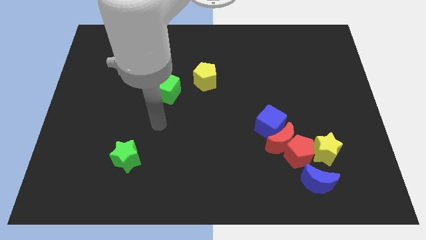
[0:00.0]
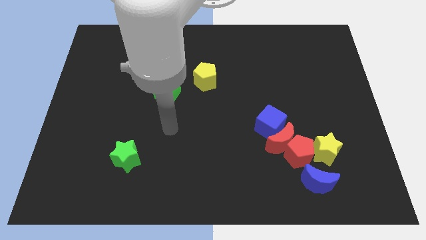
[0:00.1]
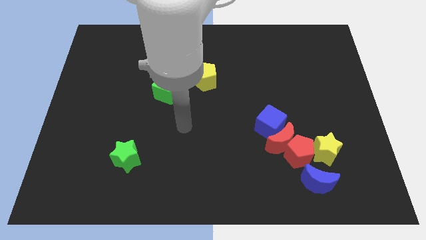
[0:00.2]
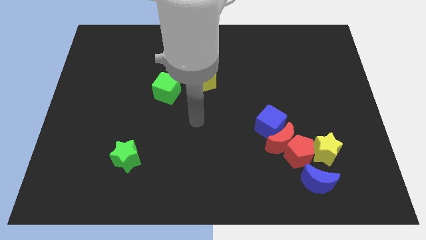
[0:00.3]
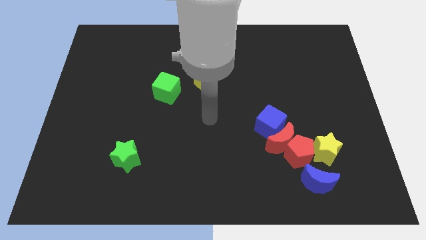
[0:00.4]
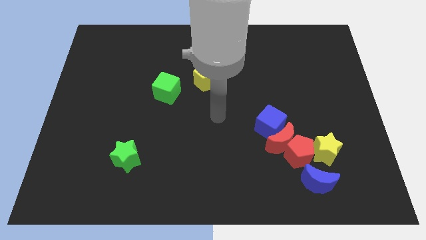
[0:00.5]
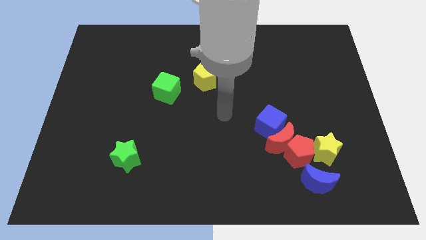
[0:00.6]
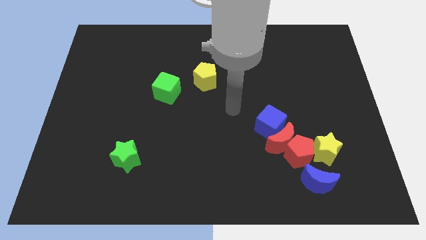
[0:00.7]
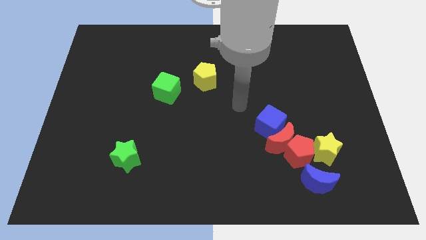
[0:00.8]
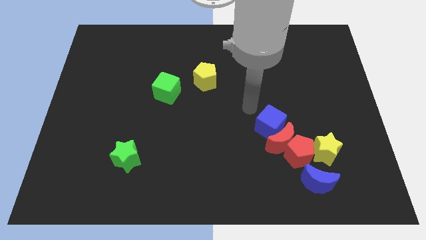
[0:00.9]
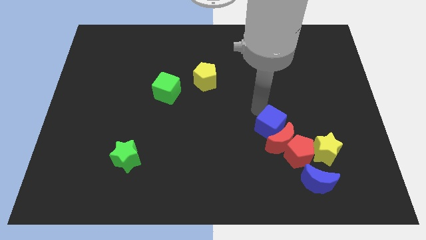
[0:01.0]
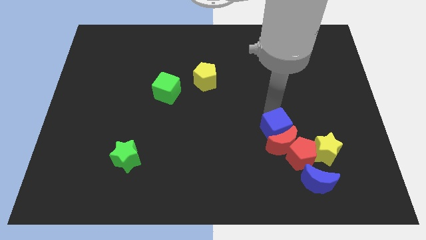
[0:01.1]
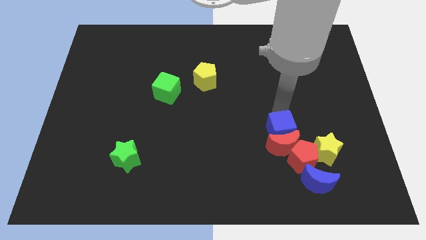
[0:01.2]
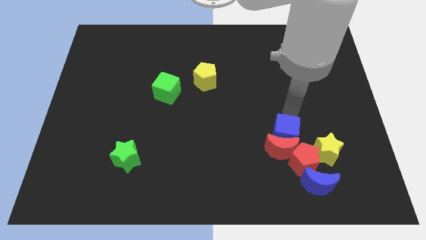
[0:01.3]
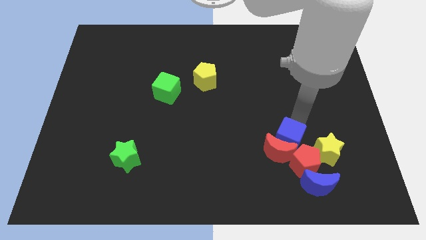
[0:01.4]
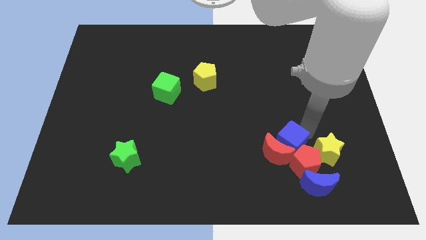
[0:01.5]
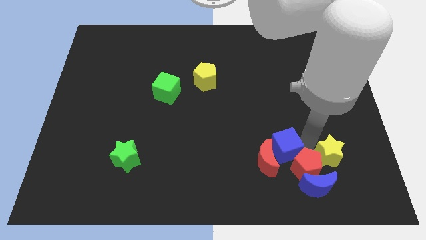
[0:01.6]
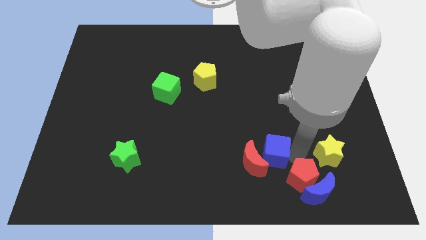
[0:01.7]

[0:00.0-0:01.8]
separate the red moon from the red pentagon, blue cube, and yellow star

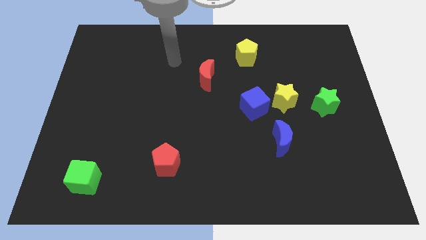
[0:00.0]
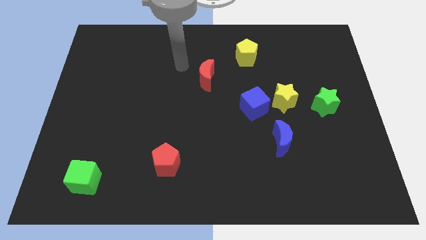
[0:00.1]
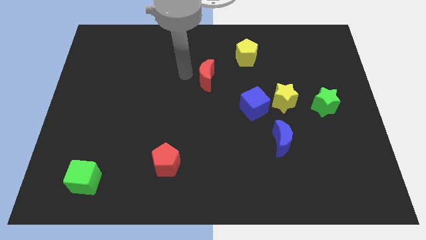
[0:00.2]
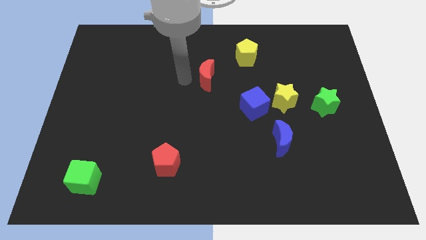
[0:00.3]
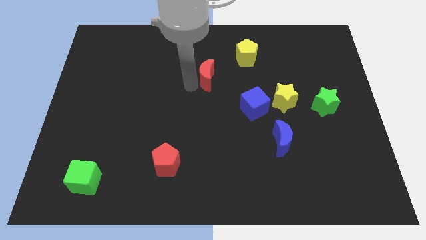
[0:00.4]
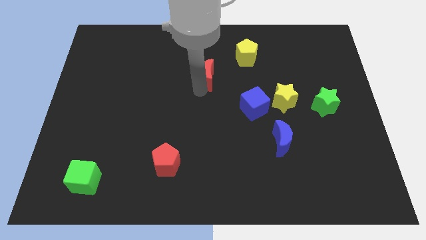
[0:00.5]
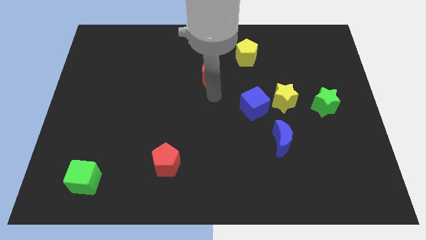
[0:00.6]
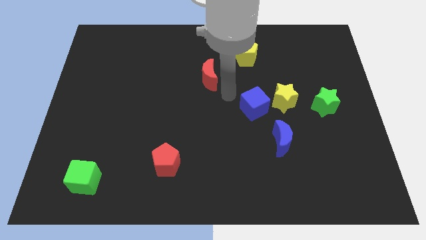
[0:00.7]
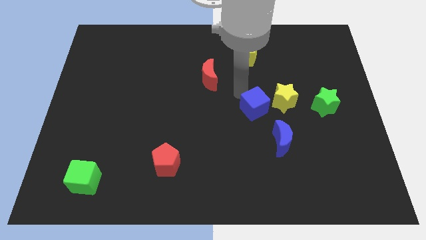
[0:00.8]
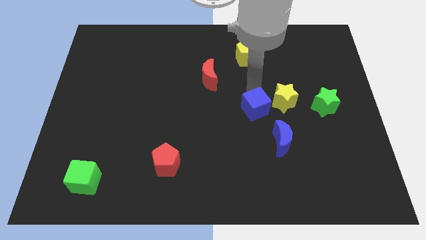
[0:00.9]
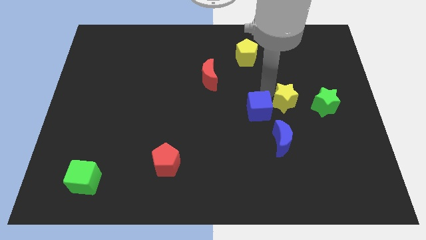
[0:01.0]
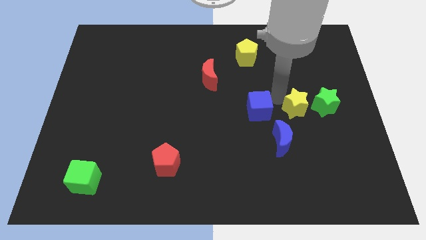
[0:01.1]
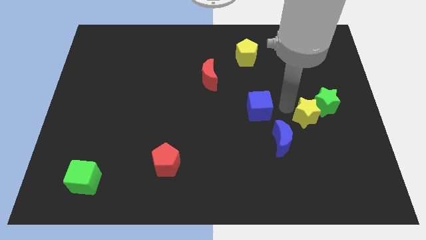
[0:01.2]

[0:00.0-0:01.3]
move the blue cube away from the yellow star

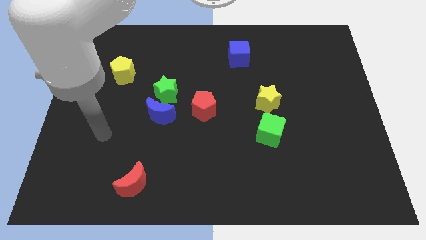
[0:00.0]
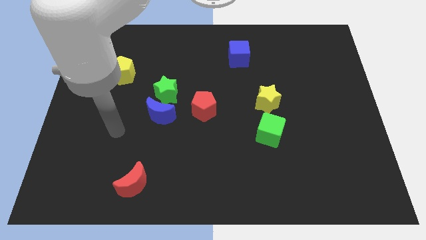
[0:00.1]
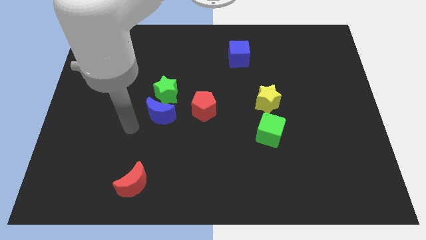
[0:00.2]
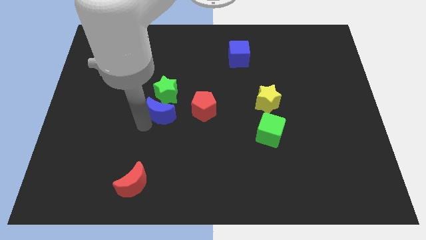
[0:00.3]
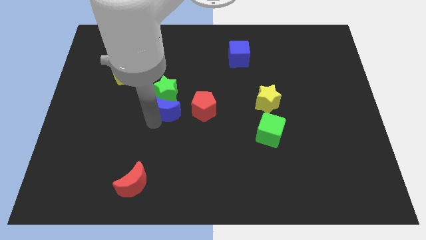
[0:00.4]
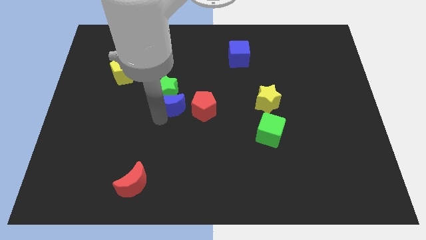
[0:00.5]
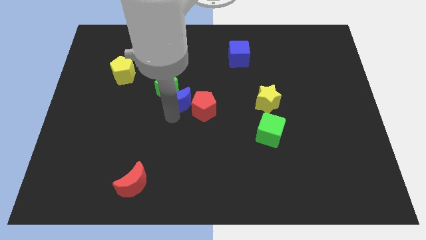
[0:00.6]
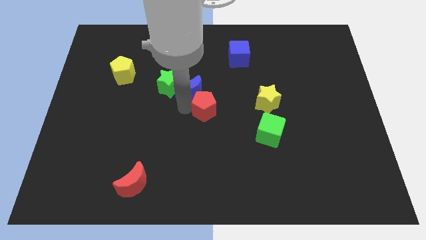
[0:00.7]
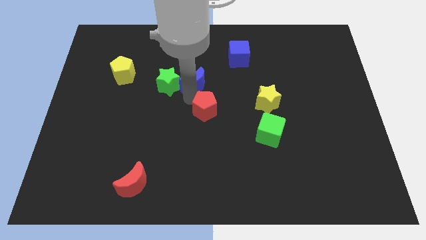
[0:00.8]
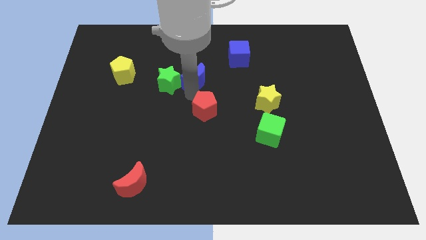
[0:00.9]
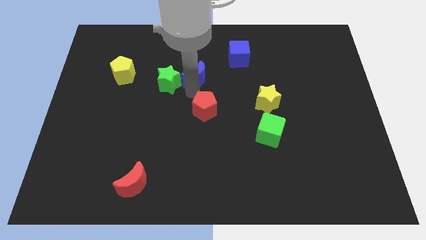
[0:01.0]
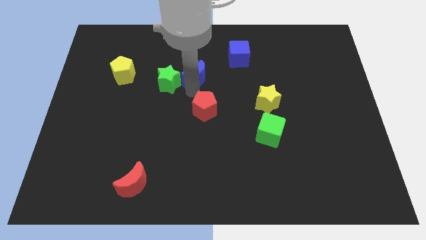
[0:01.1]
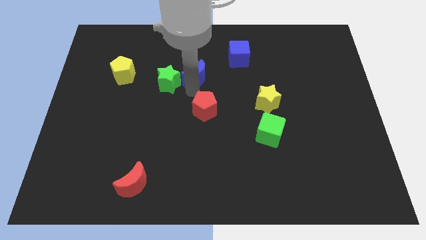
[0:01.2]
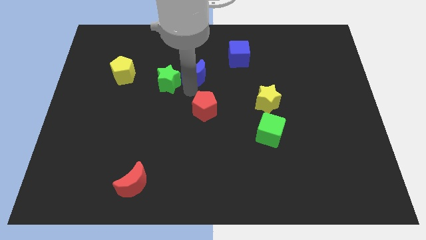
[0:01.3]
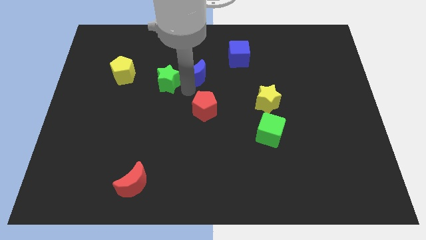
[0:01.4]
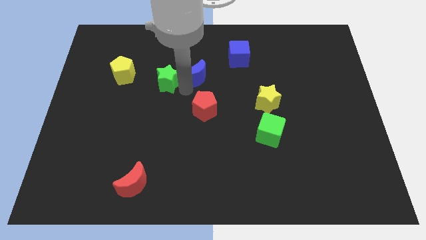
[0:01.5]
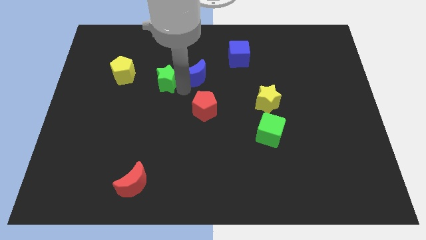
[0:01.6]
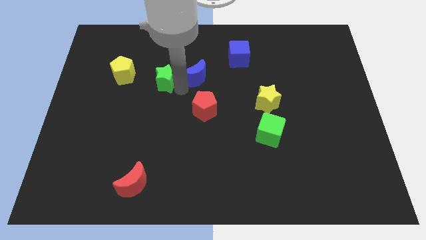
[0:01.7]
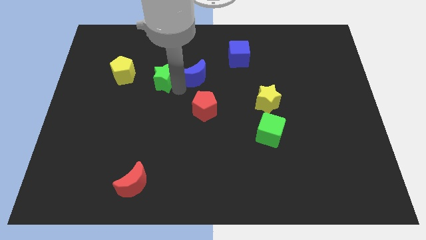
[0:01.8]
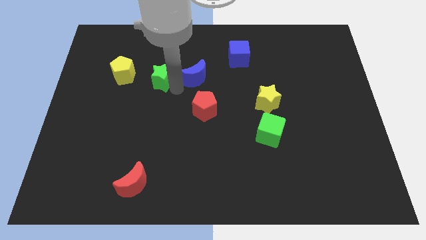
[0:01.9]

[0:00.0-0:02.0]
separate the green star from the blue moon and red pentagon

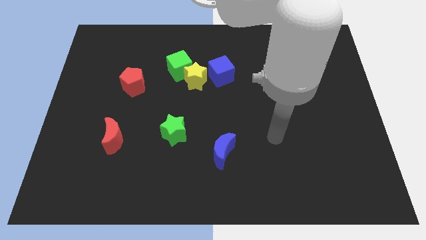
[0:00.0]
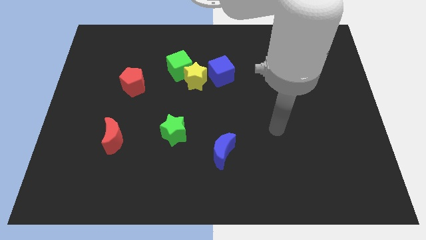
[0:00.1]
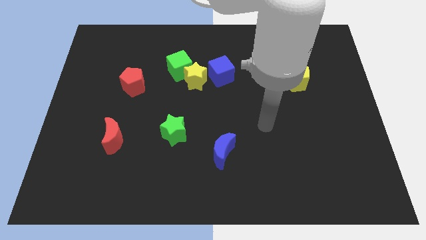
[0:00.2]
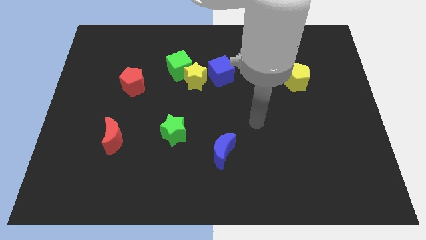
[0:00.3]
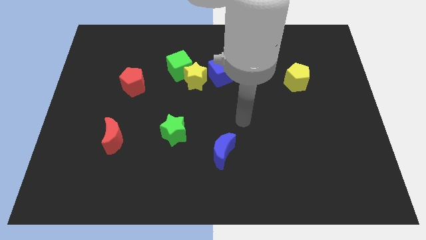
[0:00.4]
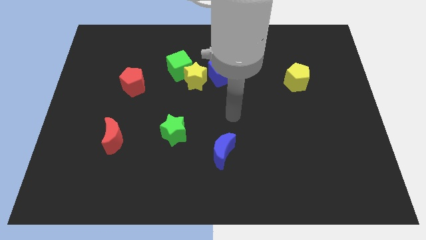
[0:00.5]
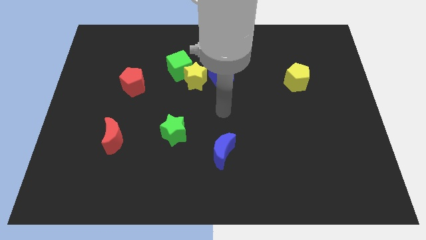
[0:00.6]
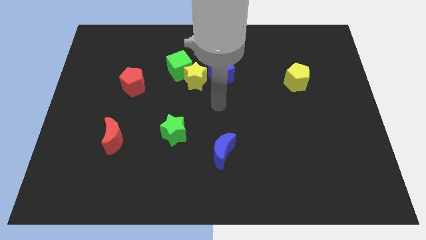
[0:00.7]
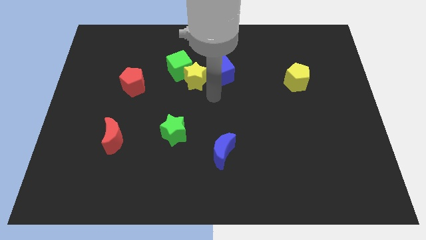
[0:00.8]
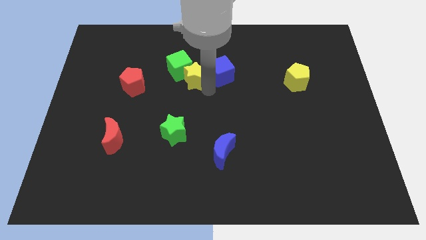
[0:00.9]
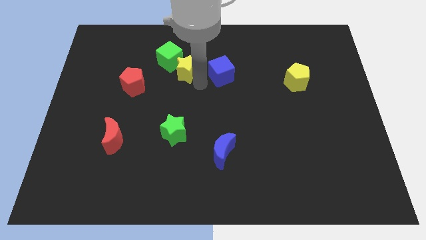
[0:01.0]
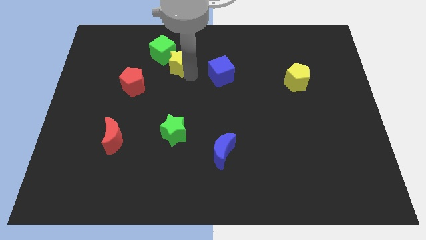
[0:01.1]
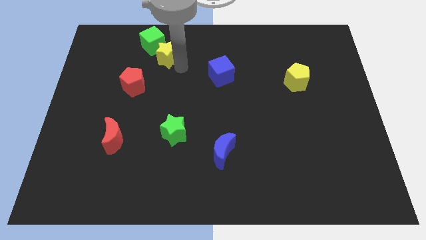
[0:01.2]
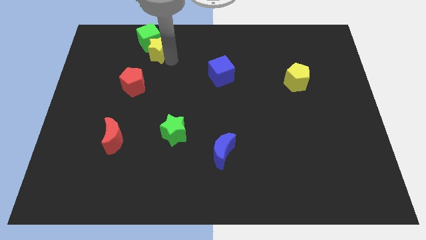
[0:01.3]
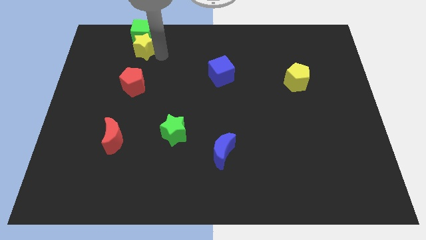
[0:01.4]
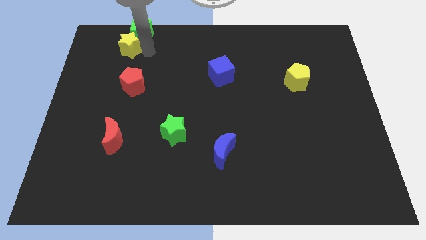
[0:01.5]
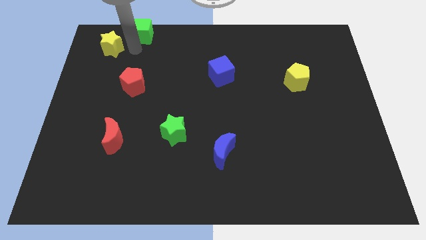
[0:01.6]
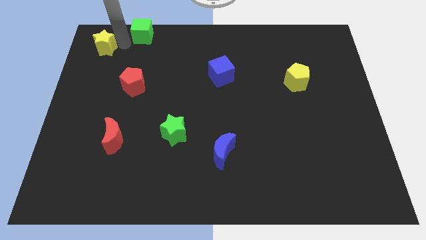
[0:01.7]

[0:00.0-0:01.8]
pull the green cube apart from the yellow star

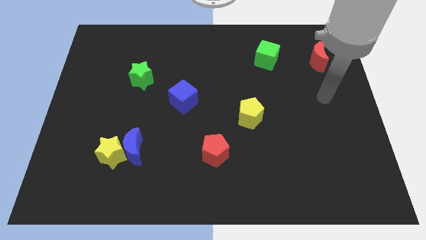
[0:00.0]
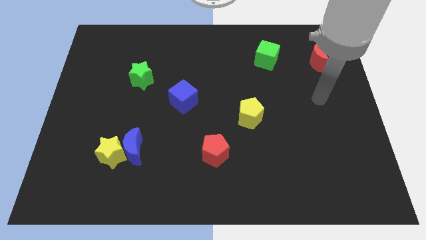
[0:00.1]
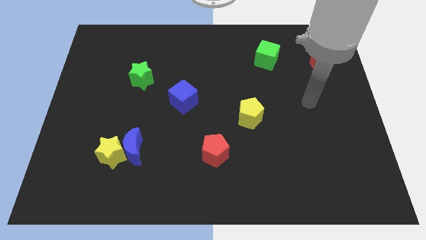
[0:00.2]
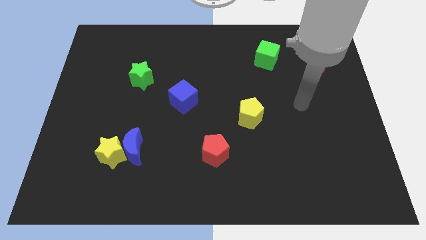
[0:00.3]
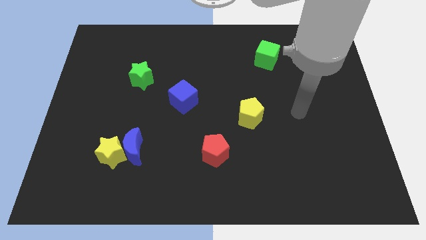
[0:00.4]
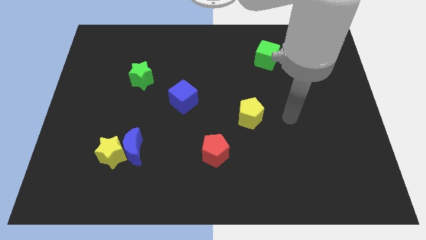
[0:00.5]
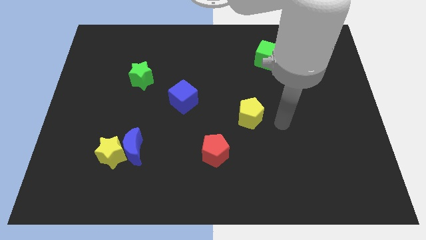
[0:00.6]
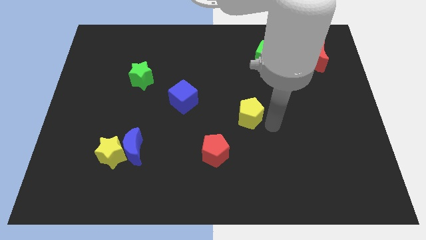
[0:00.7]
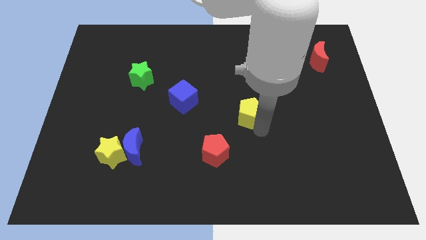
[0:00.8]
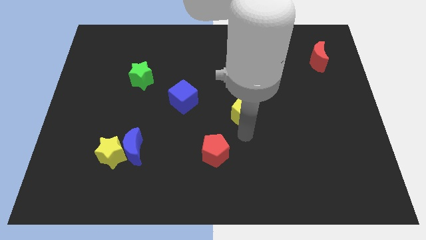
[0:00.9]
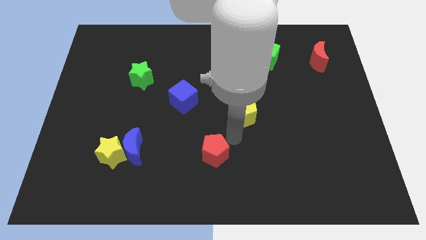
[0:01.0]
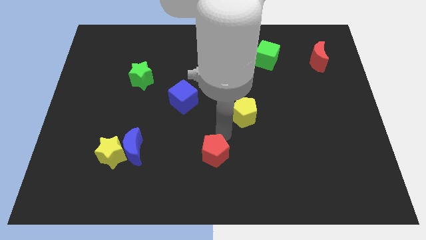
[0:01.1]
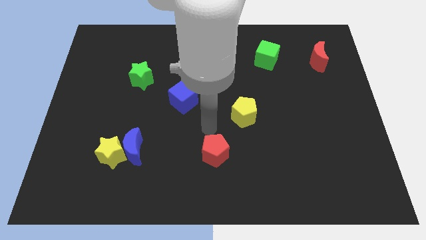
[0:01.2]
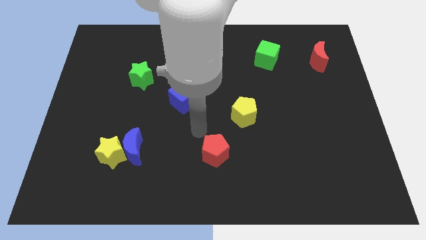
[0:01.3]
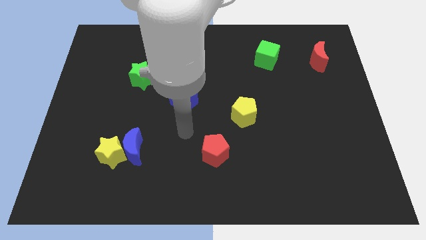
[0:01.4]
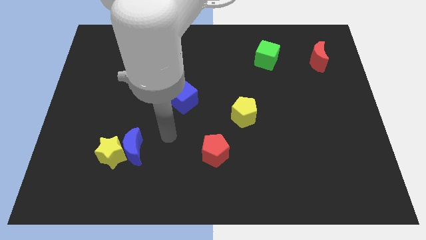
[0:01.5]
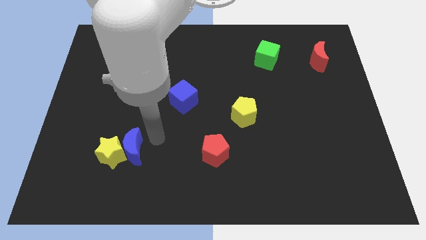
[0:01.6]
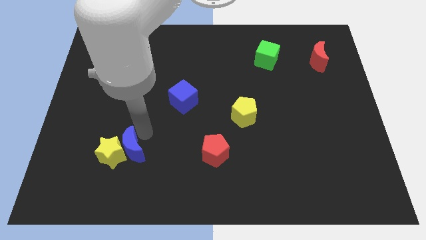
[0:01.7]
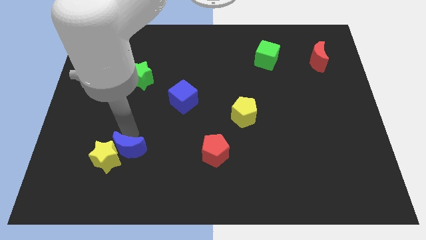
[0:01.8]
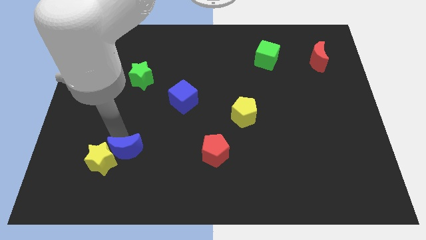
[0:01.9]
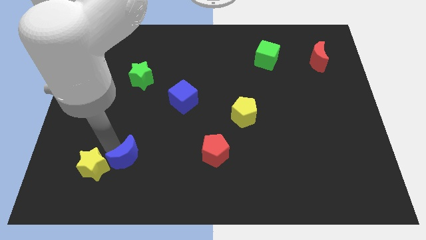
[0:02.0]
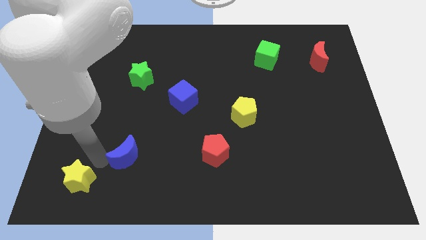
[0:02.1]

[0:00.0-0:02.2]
move the blue moon away from the yellow star

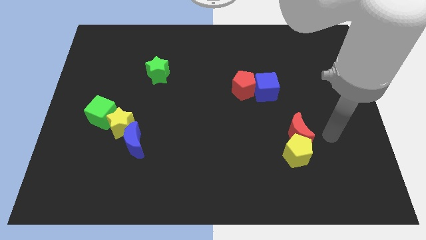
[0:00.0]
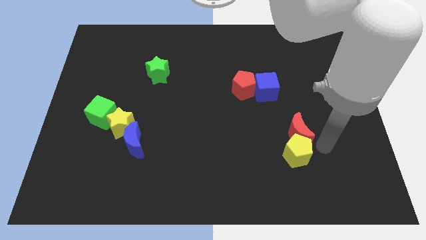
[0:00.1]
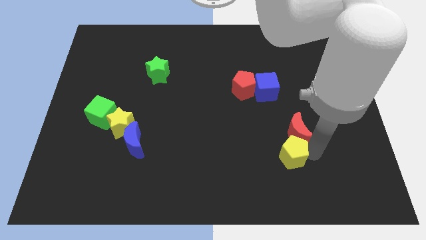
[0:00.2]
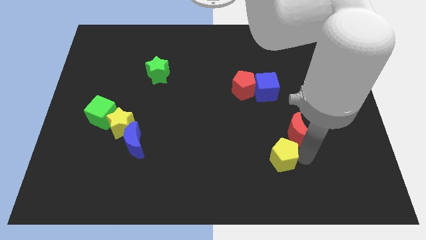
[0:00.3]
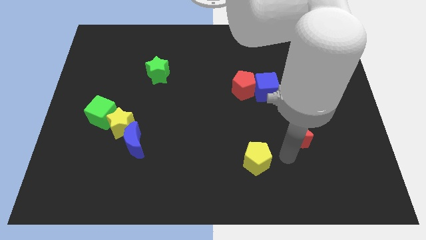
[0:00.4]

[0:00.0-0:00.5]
separate the red moon from the yellow pentagon
